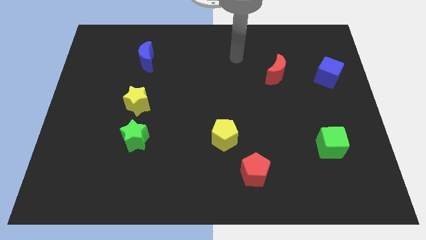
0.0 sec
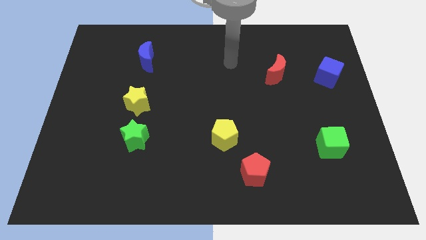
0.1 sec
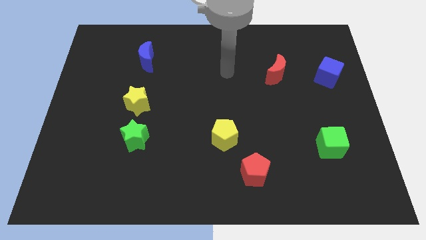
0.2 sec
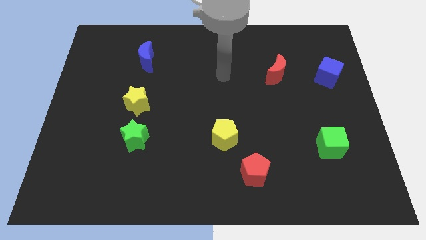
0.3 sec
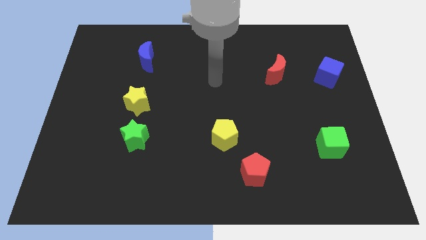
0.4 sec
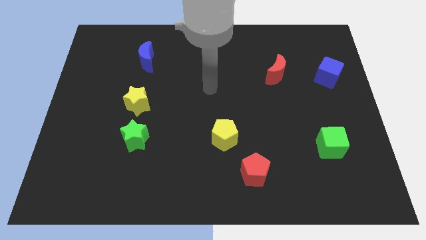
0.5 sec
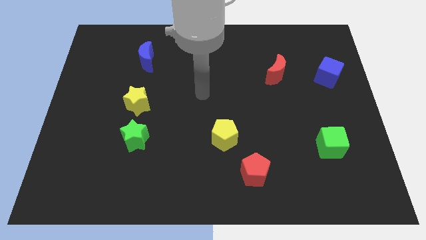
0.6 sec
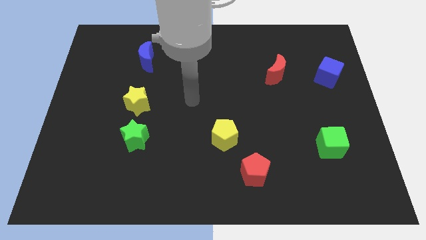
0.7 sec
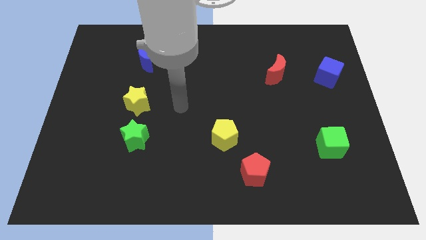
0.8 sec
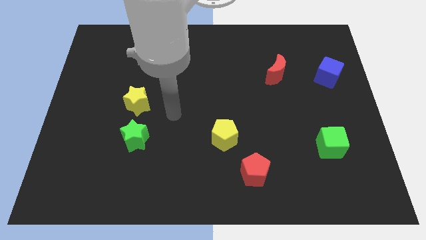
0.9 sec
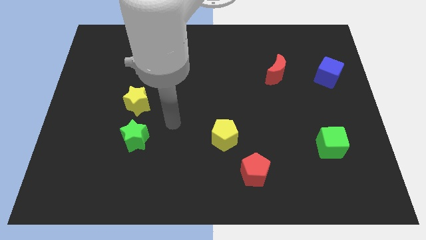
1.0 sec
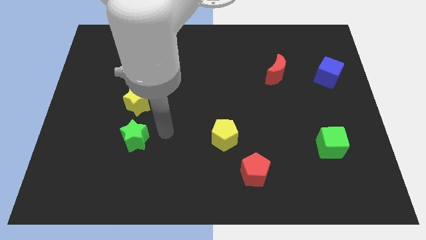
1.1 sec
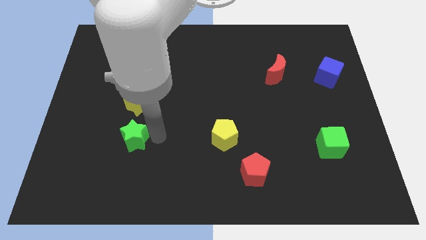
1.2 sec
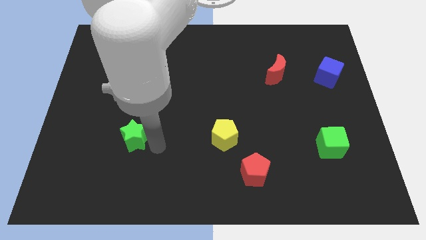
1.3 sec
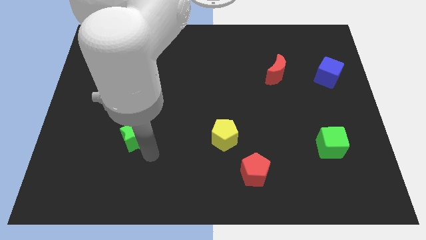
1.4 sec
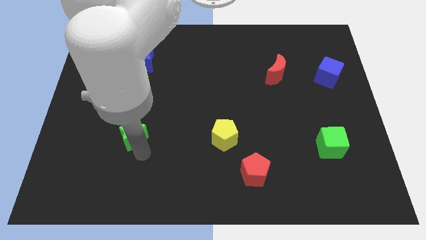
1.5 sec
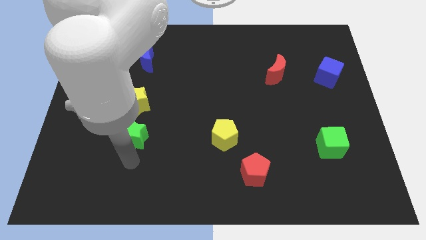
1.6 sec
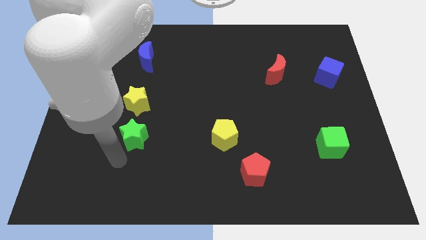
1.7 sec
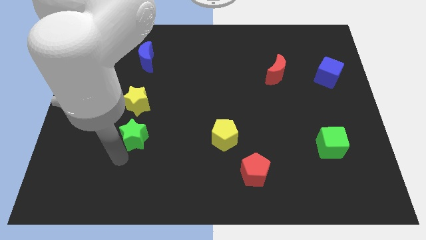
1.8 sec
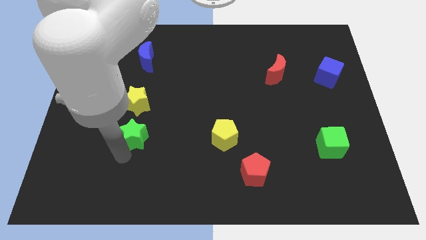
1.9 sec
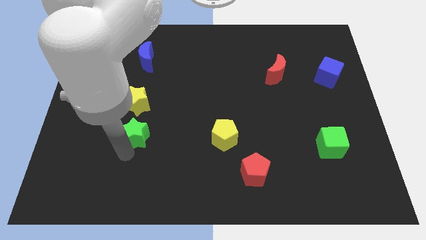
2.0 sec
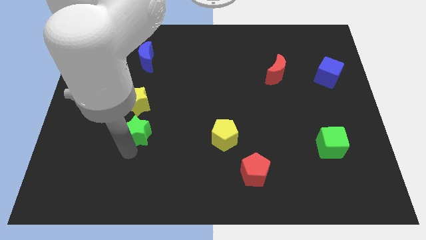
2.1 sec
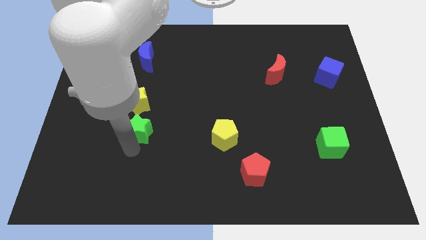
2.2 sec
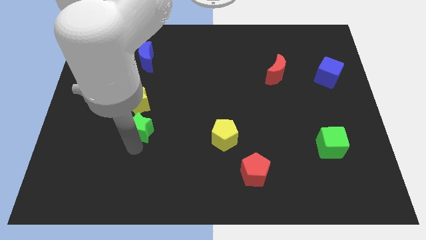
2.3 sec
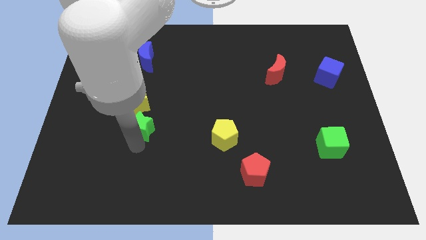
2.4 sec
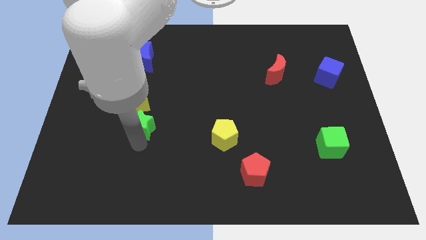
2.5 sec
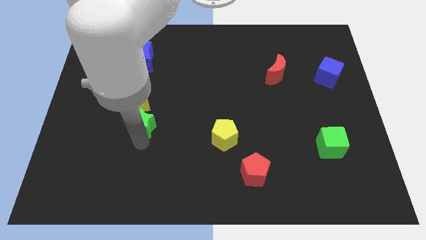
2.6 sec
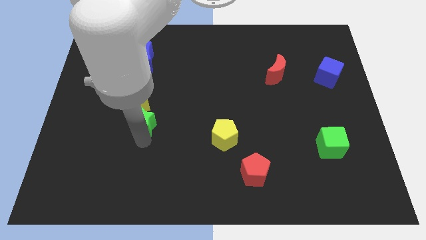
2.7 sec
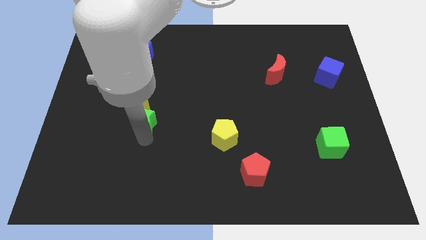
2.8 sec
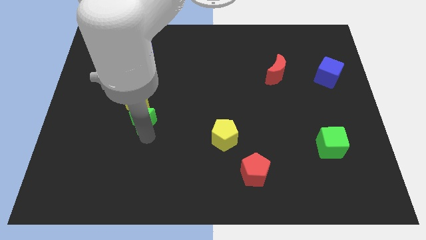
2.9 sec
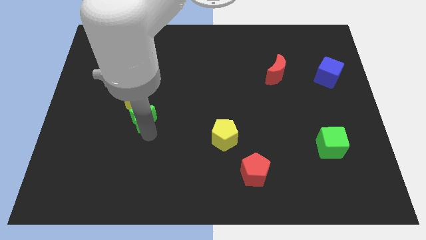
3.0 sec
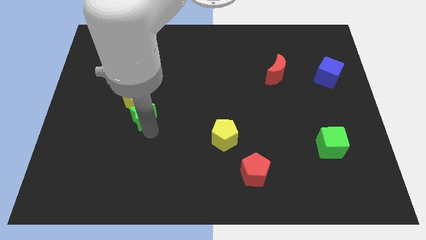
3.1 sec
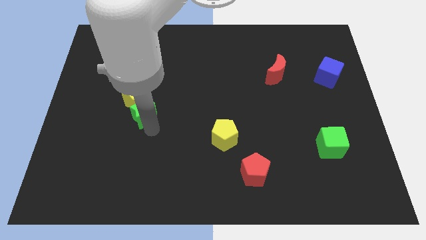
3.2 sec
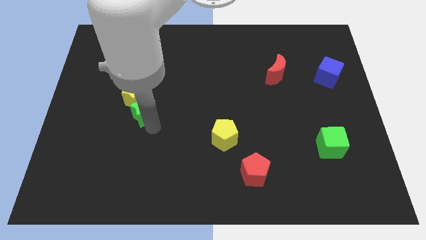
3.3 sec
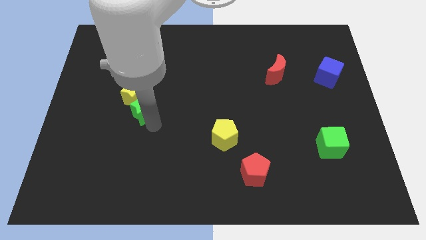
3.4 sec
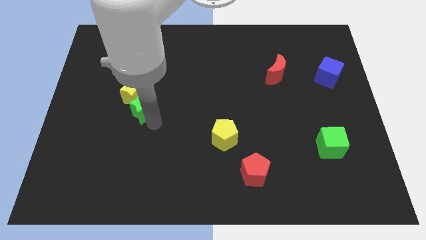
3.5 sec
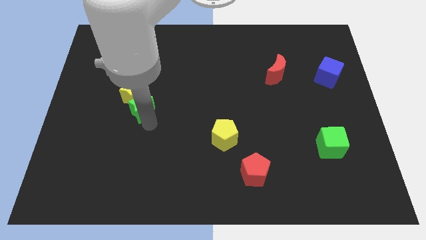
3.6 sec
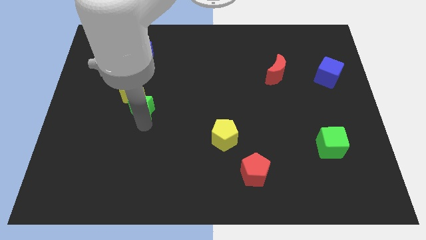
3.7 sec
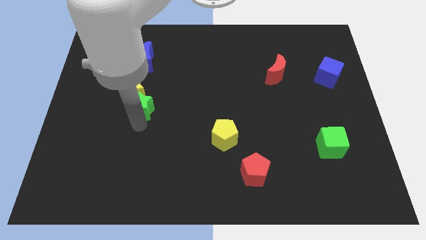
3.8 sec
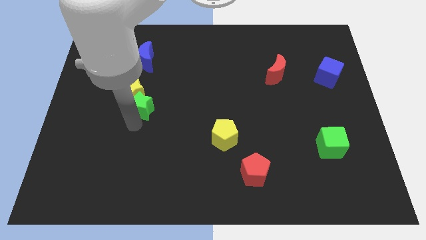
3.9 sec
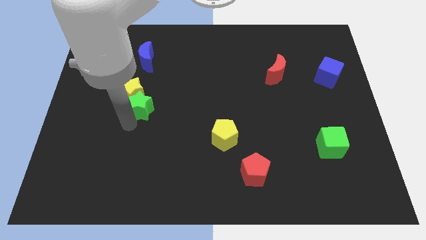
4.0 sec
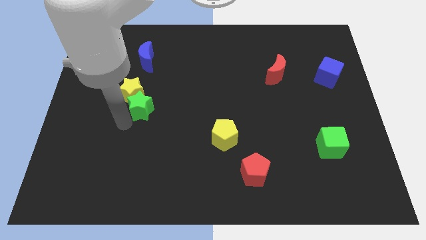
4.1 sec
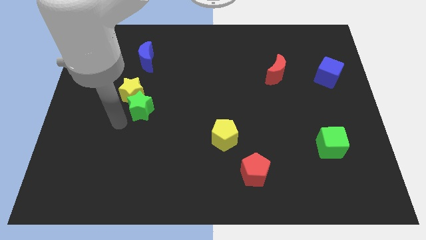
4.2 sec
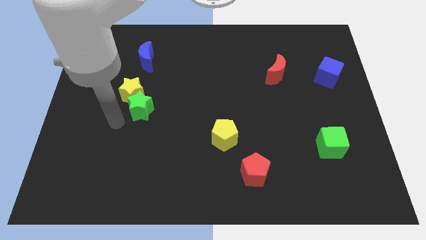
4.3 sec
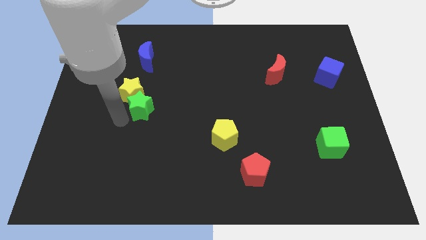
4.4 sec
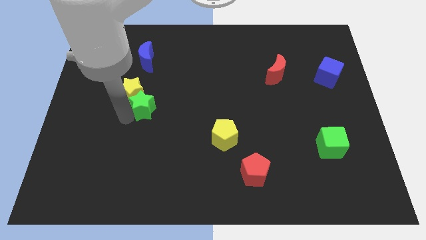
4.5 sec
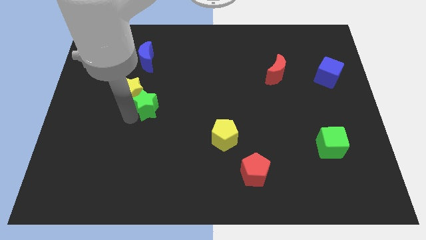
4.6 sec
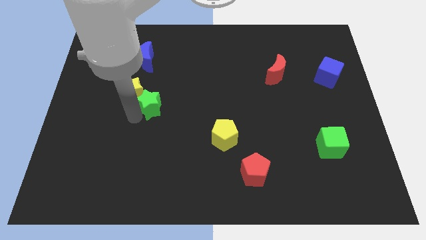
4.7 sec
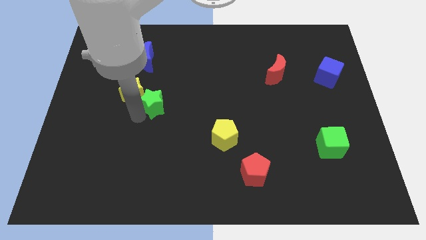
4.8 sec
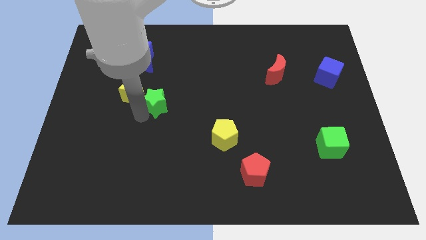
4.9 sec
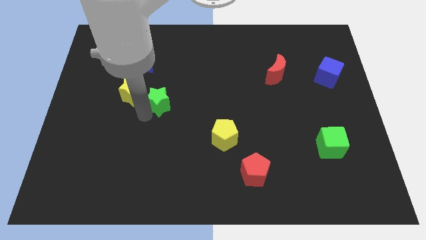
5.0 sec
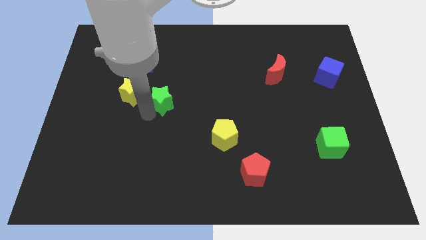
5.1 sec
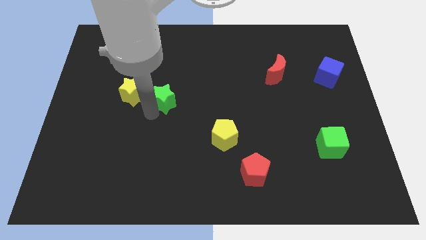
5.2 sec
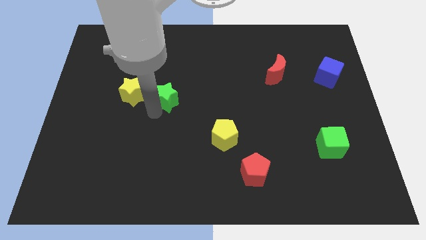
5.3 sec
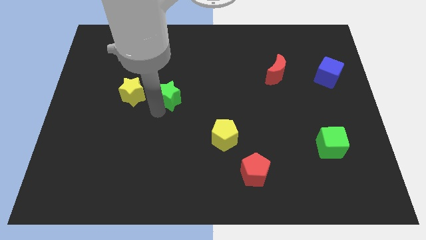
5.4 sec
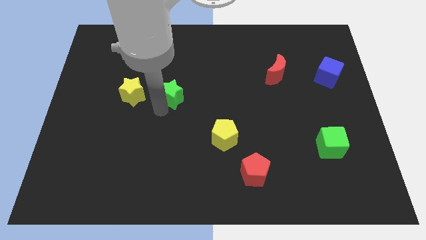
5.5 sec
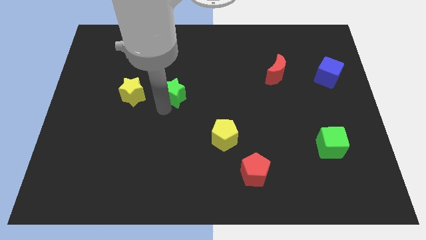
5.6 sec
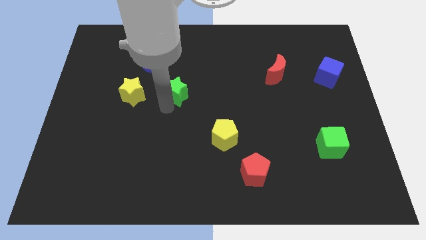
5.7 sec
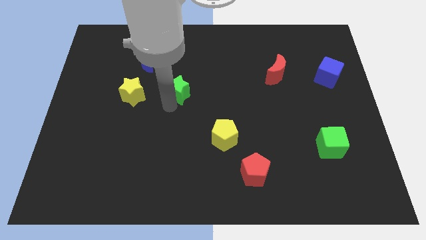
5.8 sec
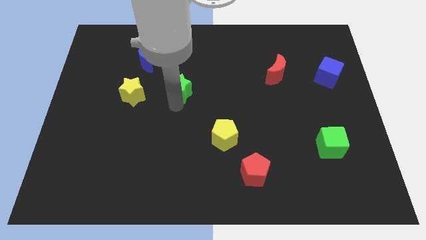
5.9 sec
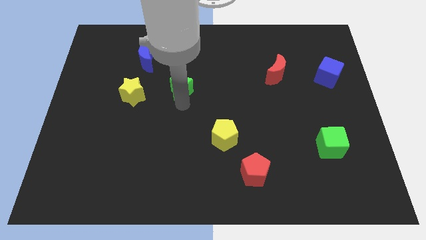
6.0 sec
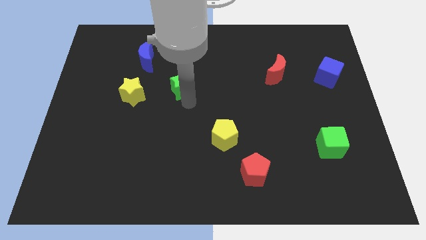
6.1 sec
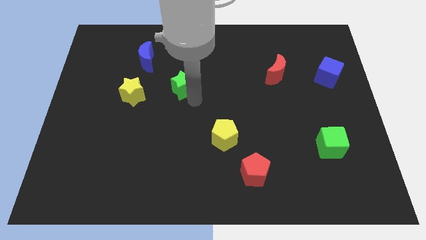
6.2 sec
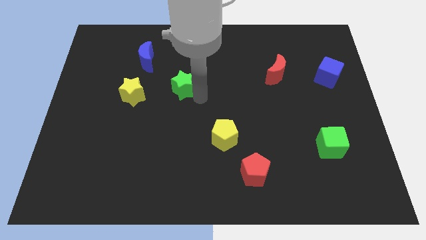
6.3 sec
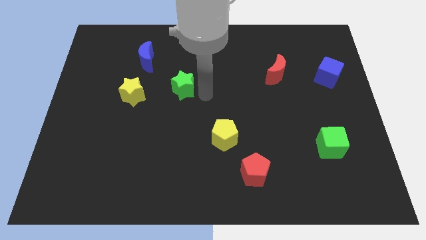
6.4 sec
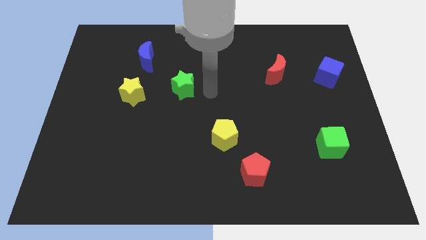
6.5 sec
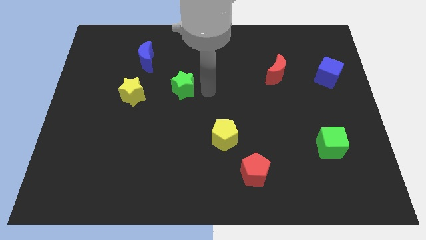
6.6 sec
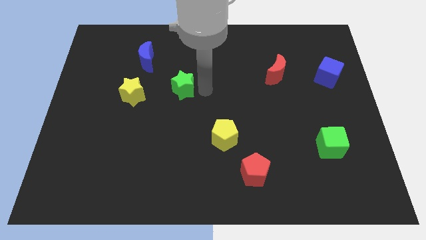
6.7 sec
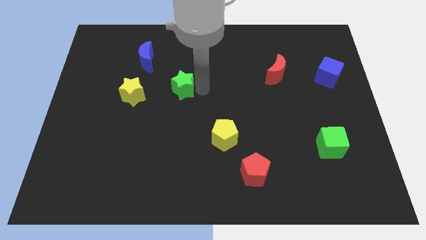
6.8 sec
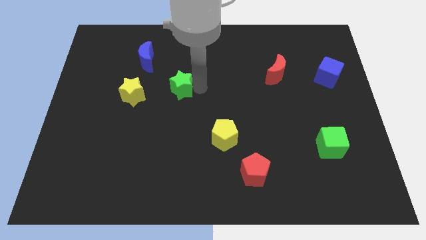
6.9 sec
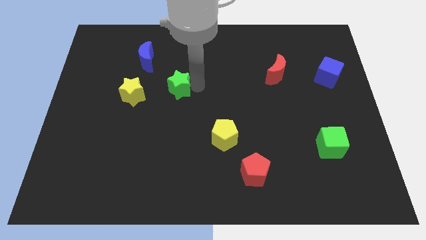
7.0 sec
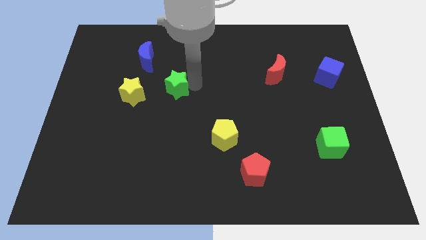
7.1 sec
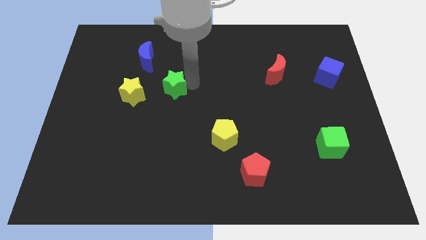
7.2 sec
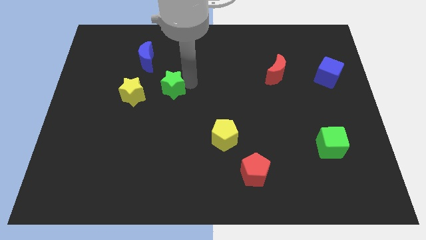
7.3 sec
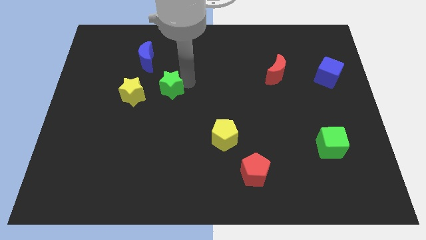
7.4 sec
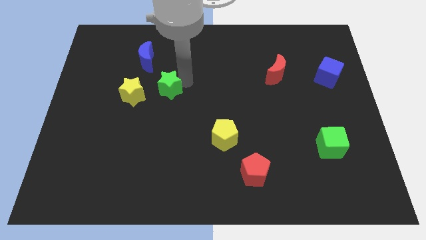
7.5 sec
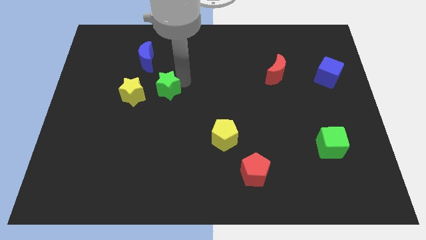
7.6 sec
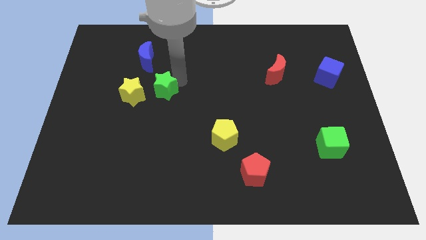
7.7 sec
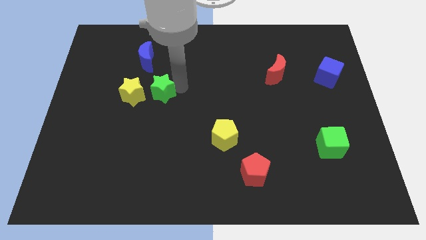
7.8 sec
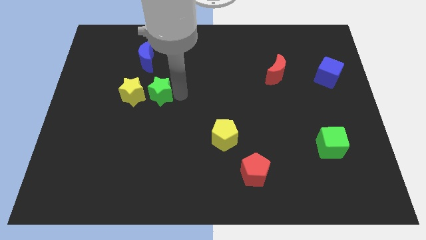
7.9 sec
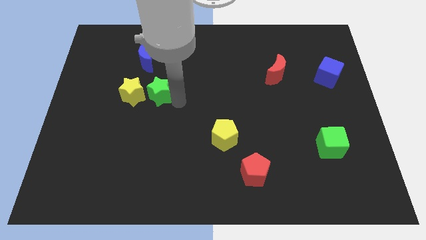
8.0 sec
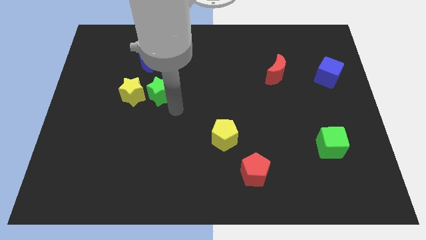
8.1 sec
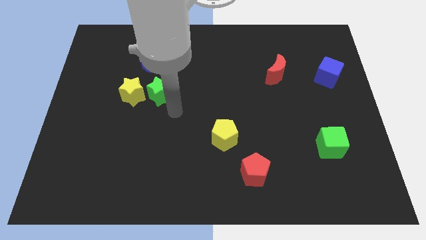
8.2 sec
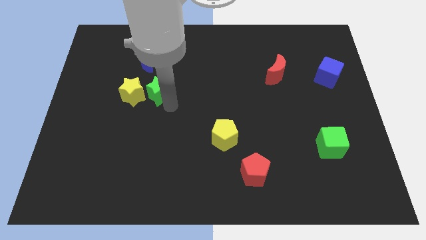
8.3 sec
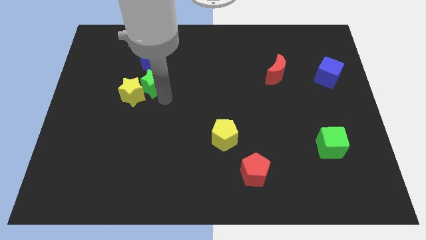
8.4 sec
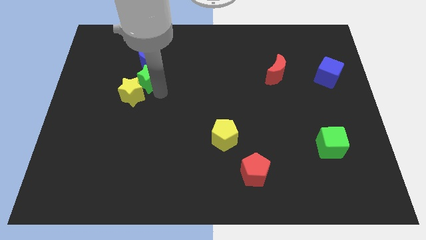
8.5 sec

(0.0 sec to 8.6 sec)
slide the green star to the top side of the yellow star
